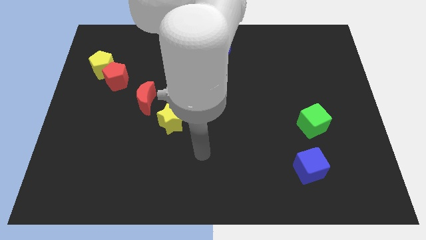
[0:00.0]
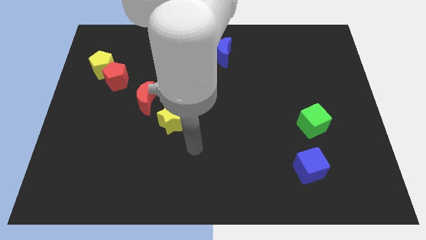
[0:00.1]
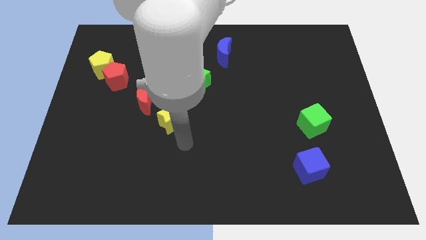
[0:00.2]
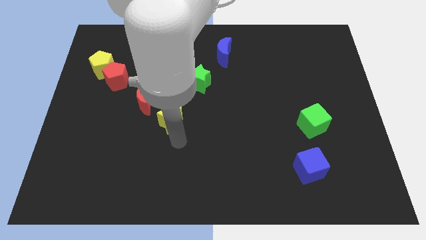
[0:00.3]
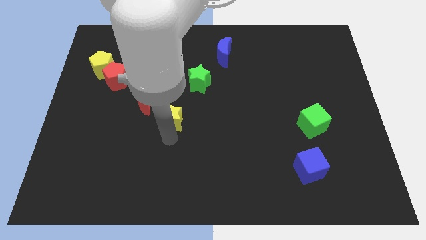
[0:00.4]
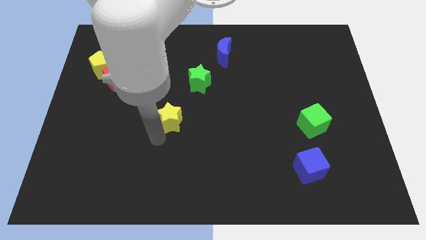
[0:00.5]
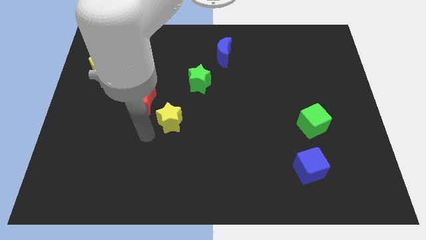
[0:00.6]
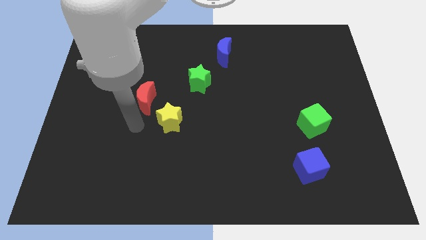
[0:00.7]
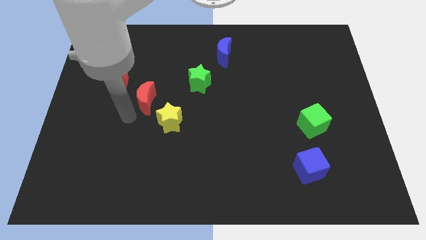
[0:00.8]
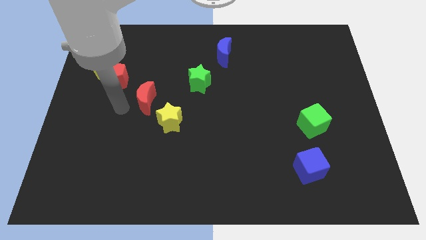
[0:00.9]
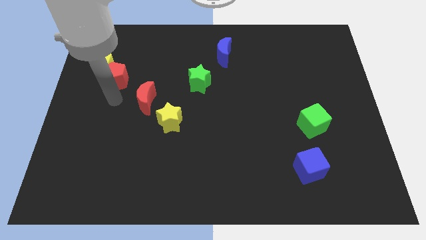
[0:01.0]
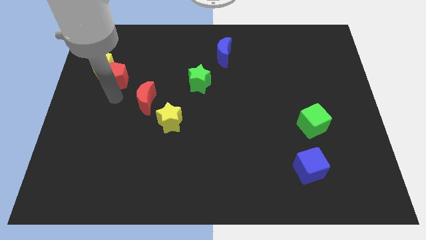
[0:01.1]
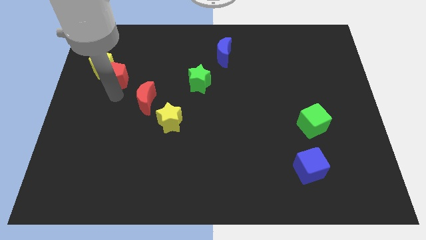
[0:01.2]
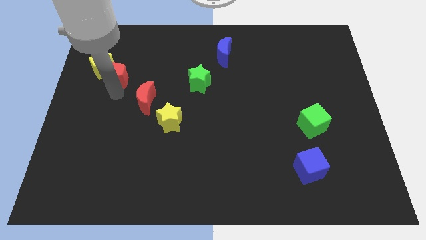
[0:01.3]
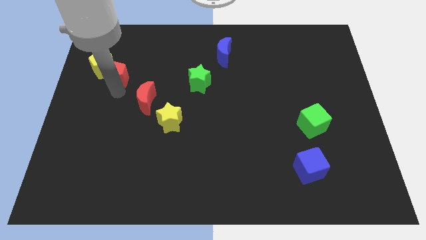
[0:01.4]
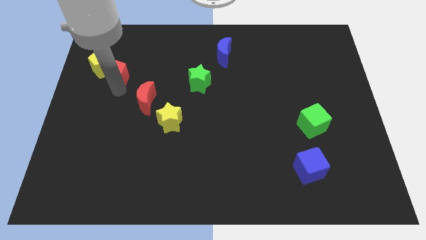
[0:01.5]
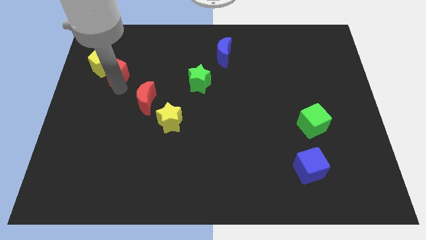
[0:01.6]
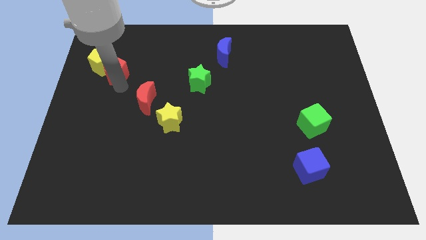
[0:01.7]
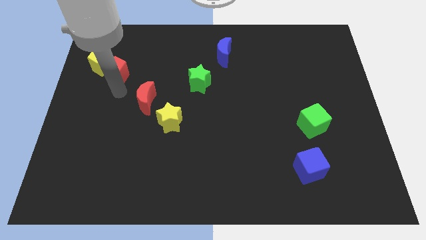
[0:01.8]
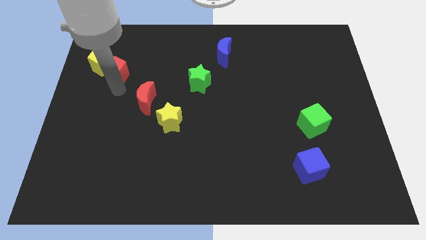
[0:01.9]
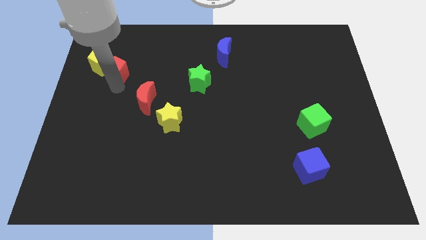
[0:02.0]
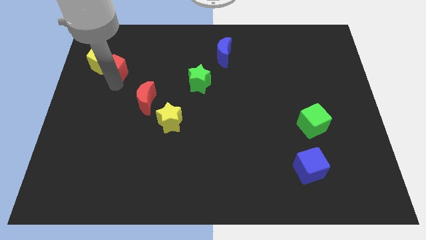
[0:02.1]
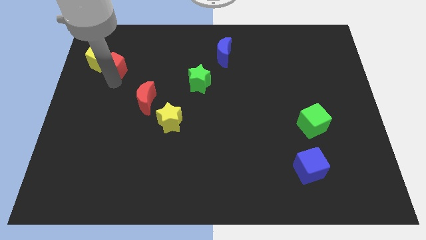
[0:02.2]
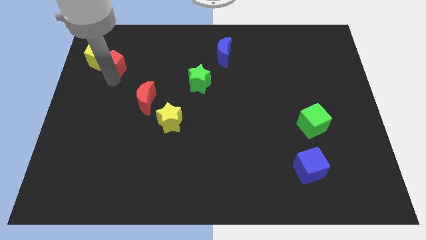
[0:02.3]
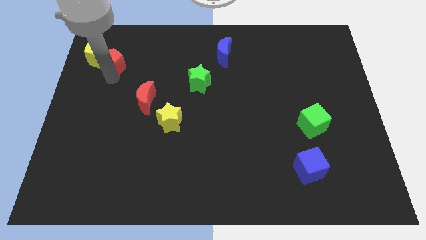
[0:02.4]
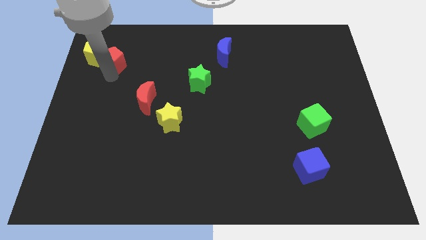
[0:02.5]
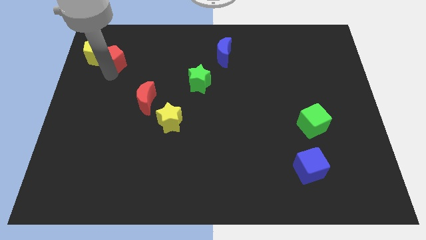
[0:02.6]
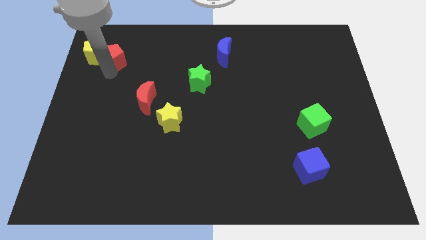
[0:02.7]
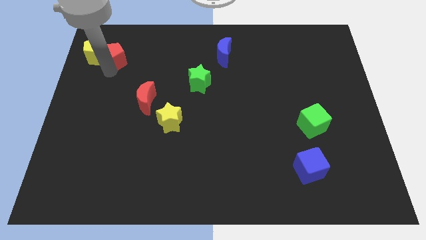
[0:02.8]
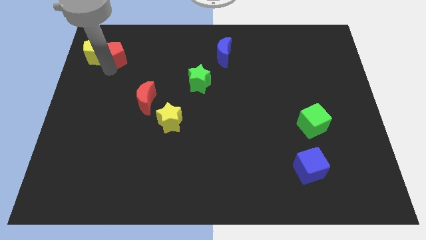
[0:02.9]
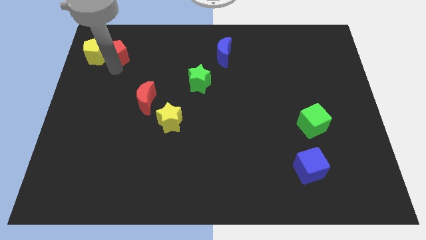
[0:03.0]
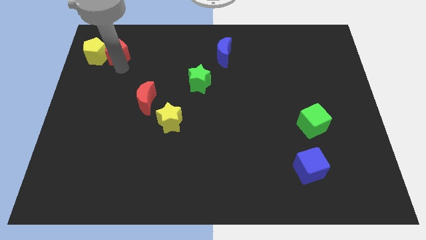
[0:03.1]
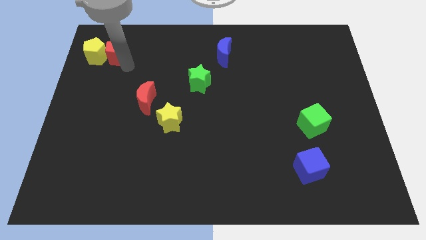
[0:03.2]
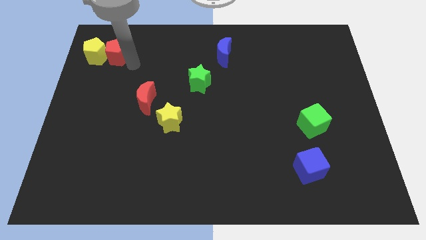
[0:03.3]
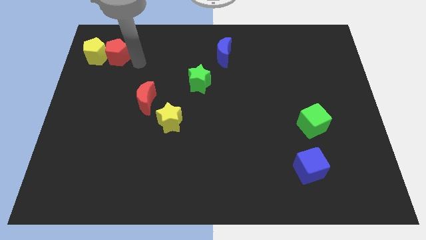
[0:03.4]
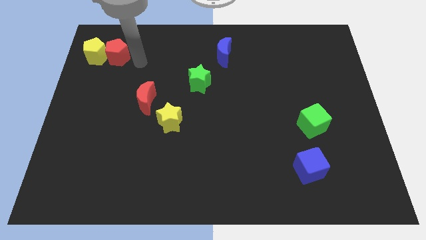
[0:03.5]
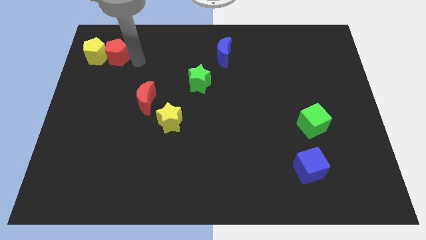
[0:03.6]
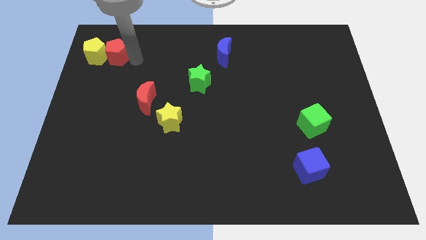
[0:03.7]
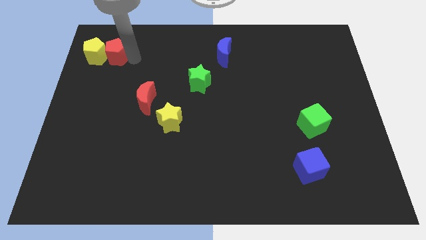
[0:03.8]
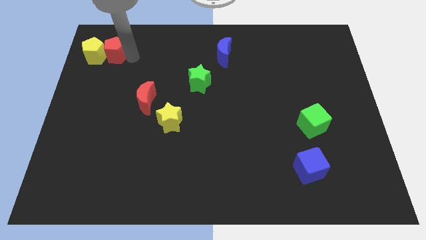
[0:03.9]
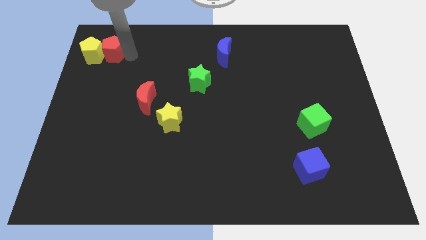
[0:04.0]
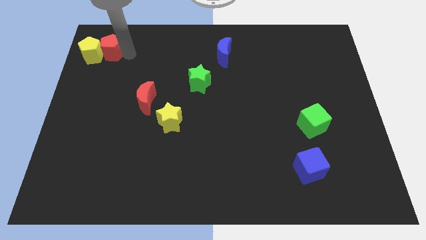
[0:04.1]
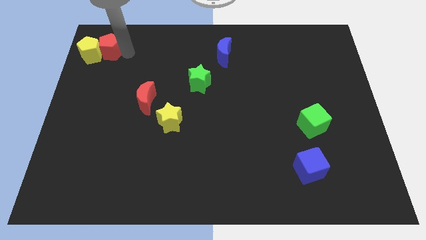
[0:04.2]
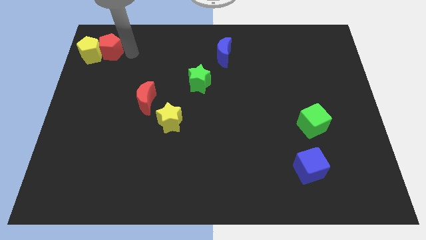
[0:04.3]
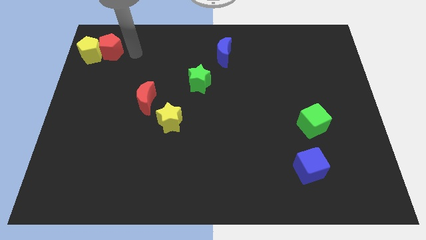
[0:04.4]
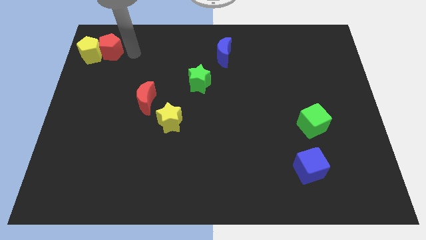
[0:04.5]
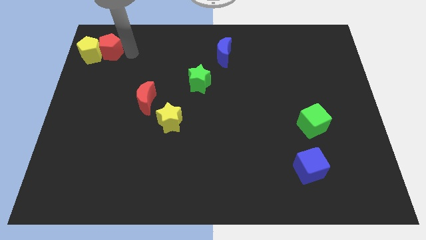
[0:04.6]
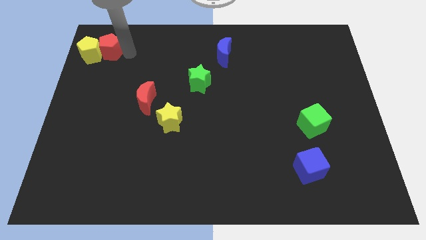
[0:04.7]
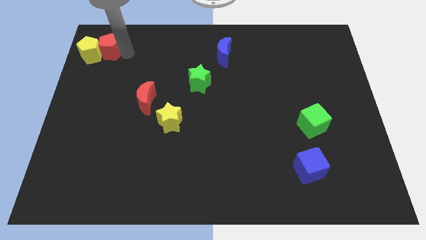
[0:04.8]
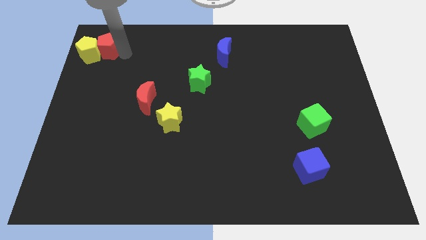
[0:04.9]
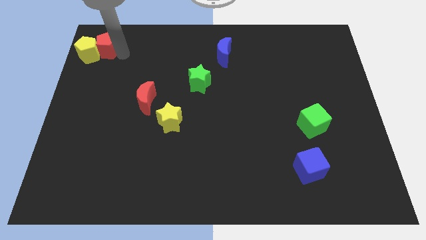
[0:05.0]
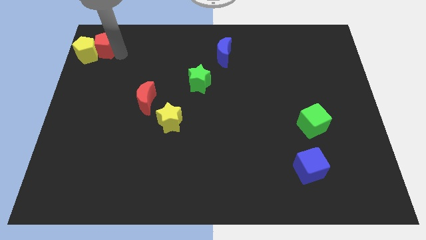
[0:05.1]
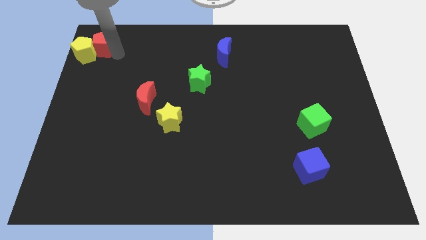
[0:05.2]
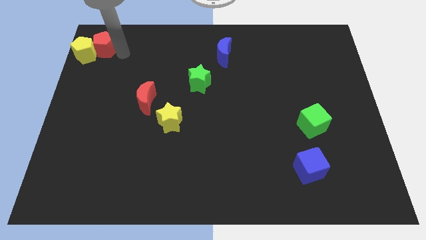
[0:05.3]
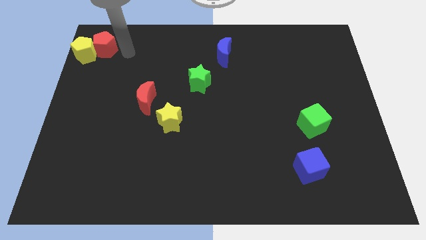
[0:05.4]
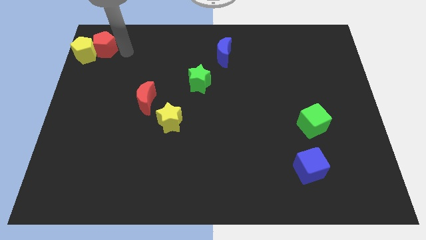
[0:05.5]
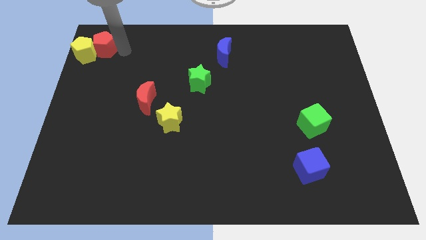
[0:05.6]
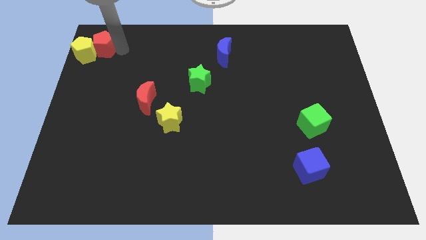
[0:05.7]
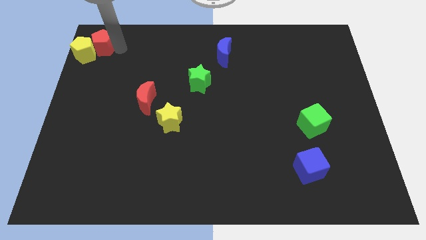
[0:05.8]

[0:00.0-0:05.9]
slide the red pentagon to the top left
